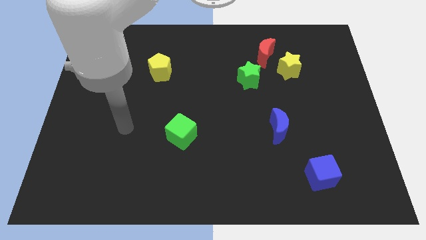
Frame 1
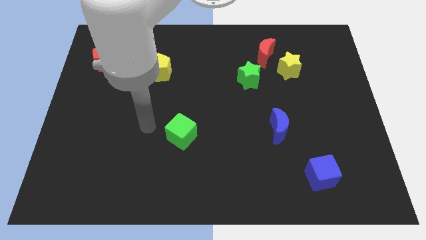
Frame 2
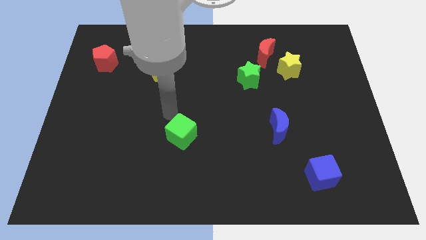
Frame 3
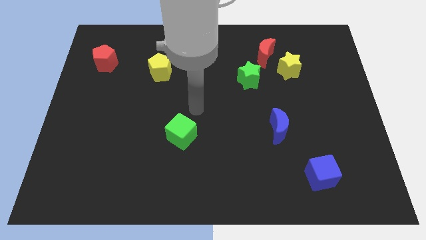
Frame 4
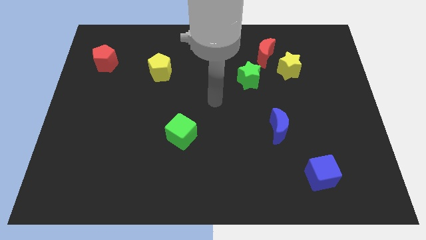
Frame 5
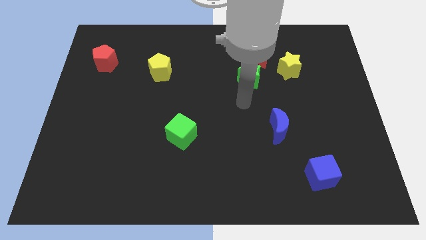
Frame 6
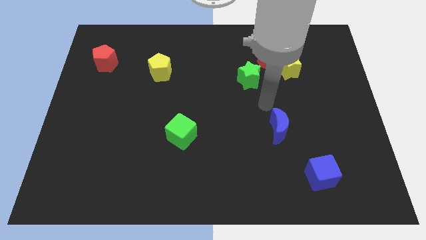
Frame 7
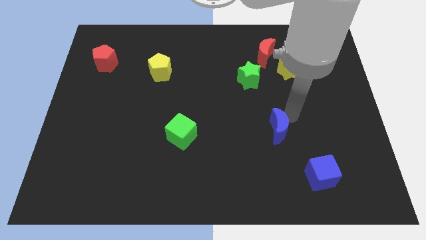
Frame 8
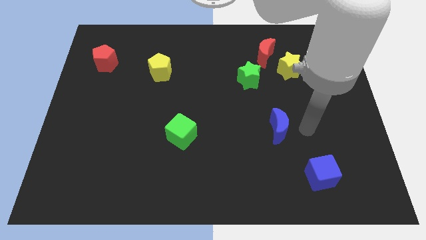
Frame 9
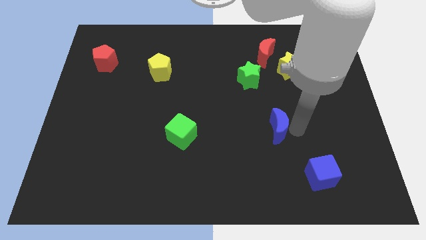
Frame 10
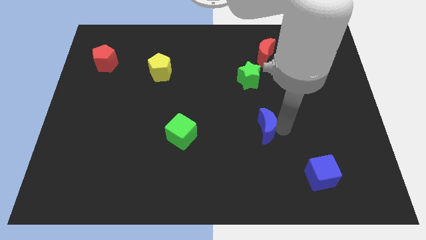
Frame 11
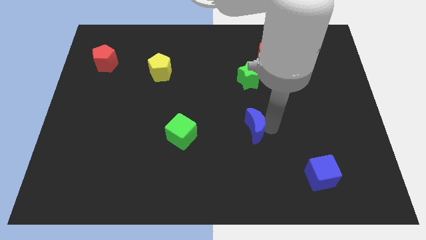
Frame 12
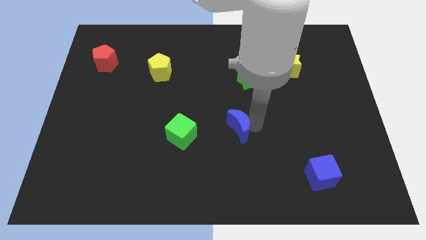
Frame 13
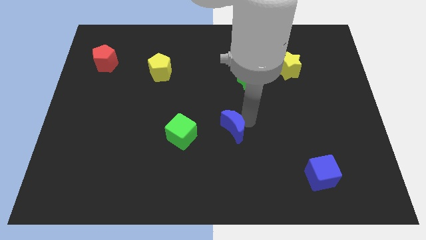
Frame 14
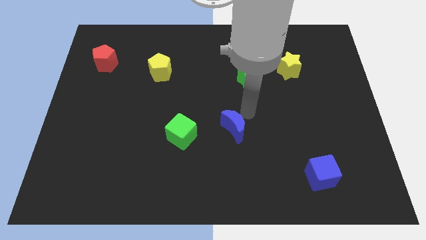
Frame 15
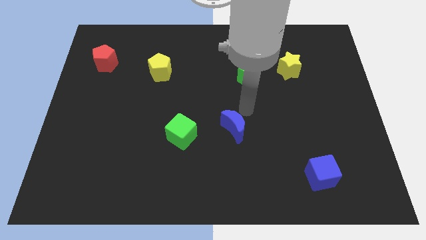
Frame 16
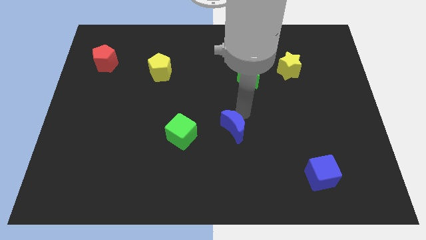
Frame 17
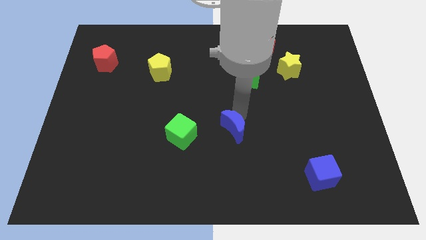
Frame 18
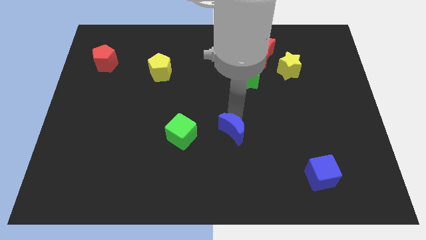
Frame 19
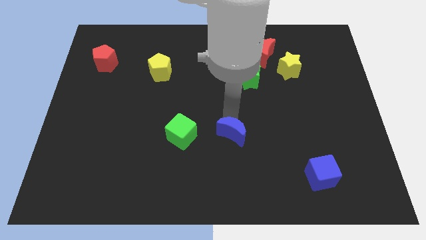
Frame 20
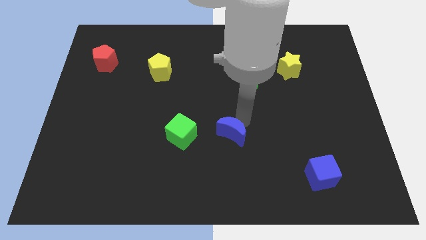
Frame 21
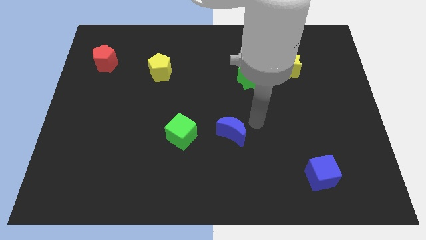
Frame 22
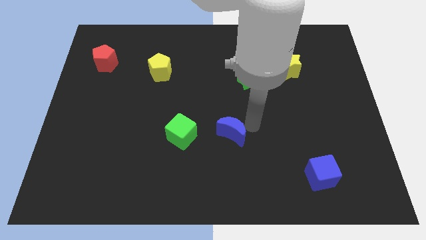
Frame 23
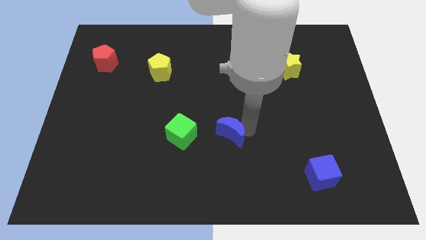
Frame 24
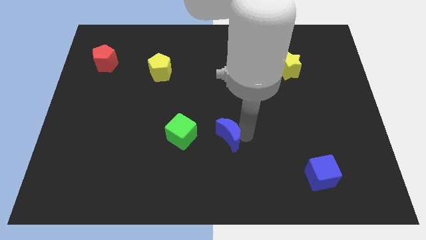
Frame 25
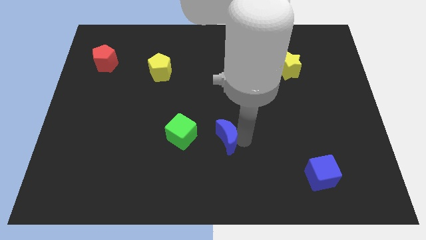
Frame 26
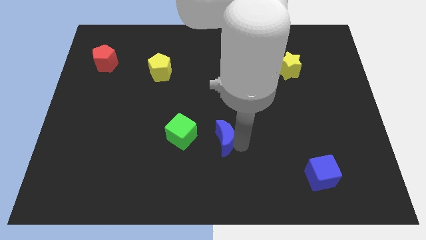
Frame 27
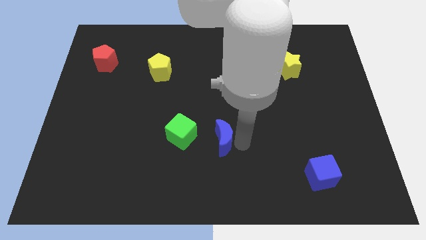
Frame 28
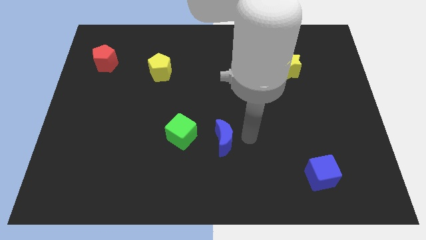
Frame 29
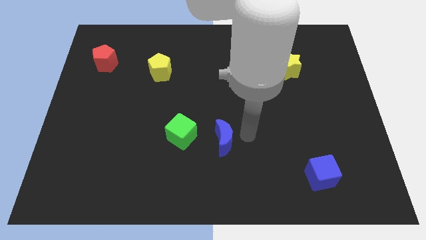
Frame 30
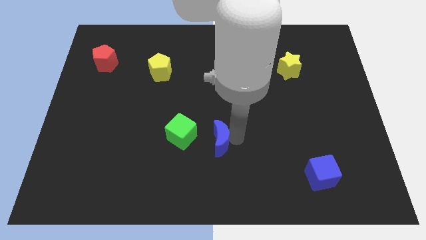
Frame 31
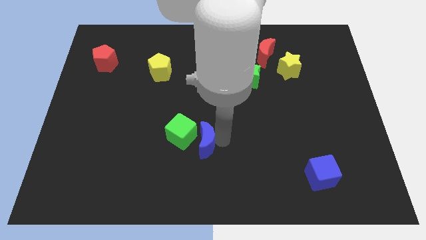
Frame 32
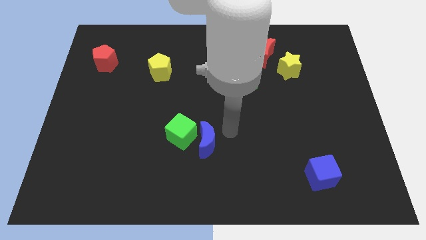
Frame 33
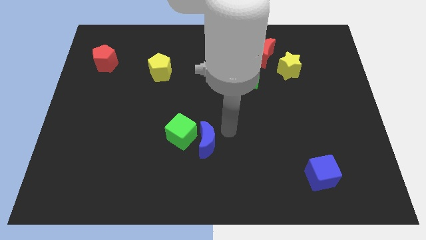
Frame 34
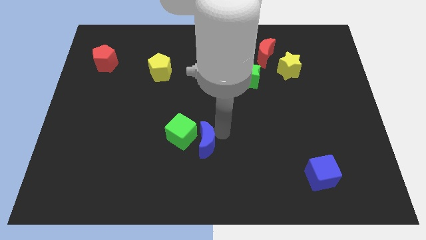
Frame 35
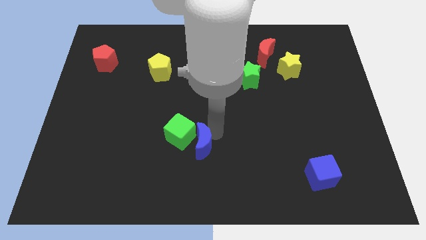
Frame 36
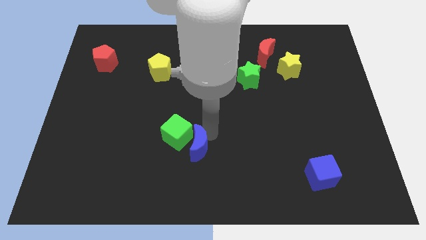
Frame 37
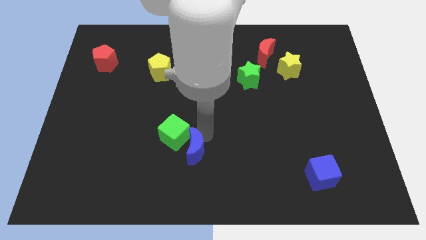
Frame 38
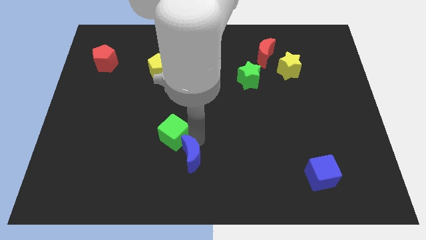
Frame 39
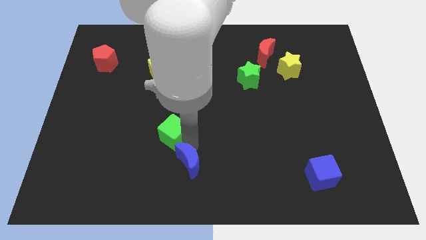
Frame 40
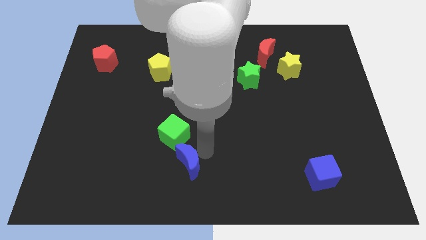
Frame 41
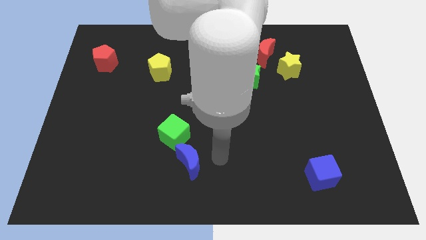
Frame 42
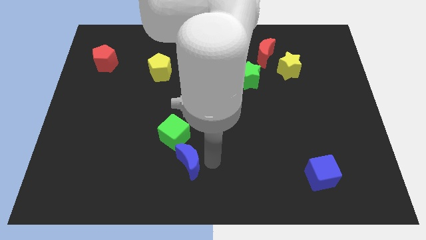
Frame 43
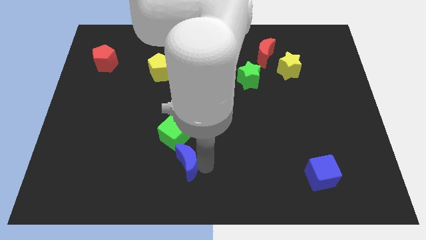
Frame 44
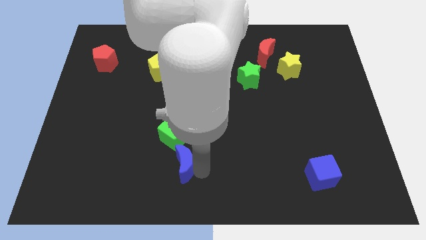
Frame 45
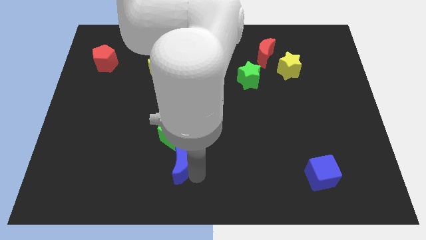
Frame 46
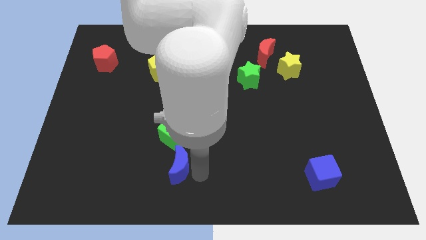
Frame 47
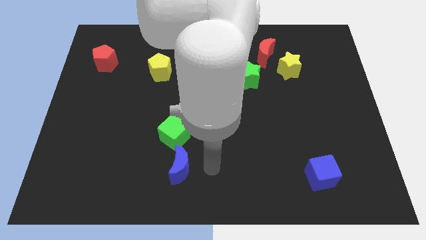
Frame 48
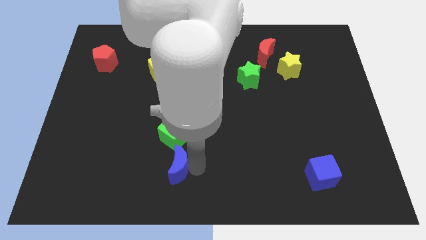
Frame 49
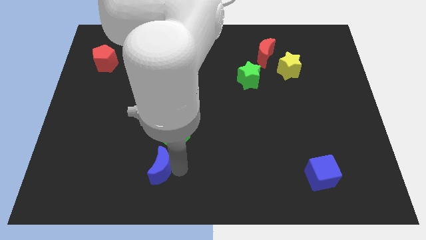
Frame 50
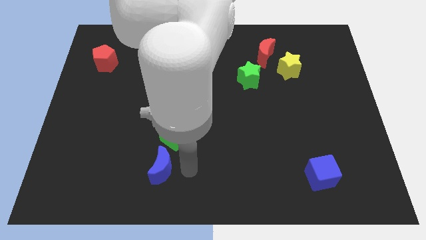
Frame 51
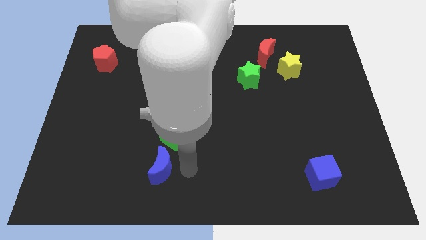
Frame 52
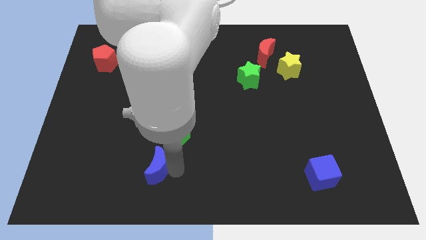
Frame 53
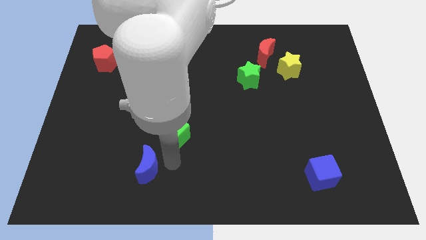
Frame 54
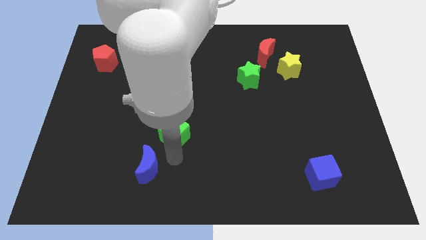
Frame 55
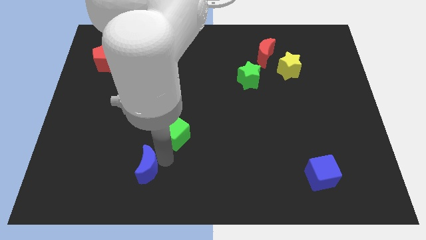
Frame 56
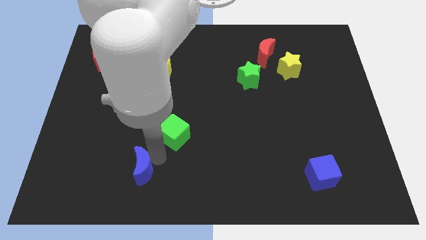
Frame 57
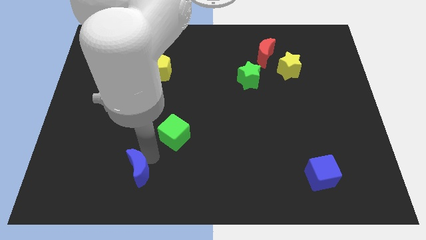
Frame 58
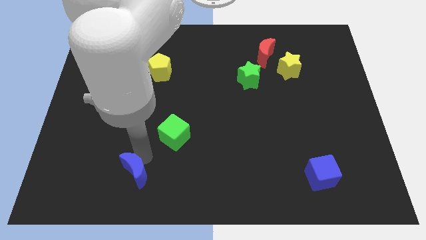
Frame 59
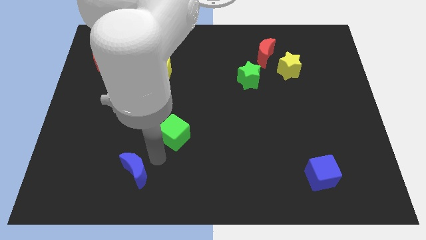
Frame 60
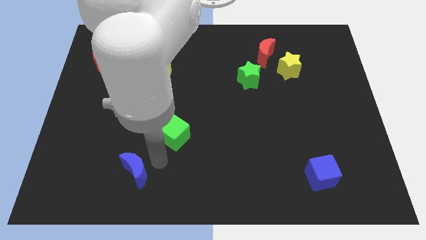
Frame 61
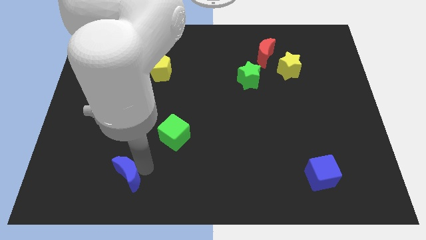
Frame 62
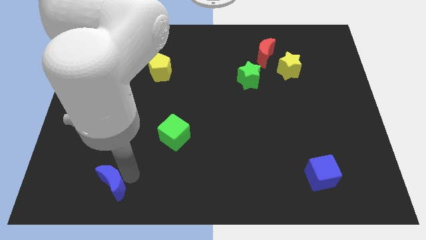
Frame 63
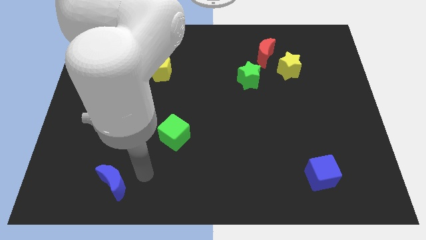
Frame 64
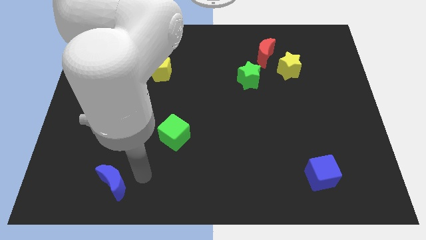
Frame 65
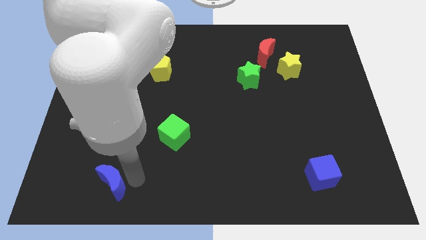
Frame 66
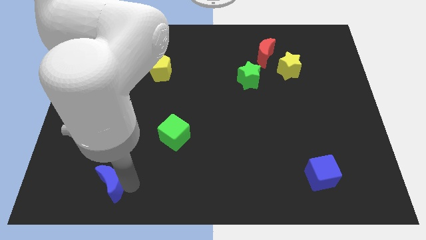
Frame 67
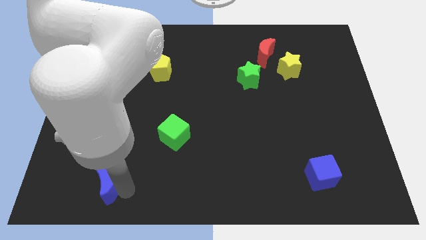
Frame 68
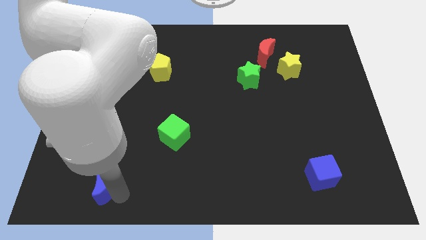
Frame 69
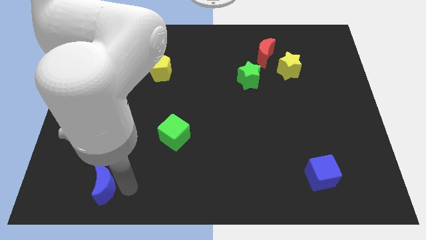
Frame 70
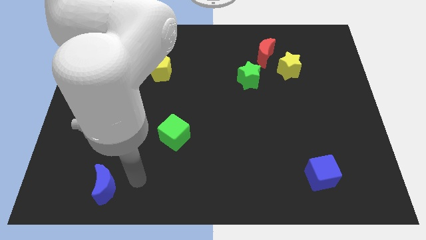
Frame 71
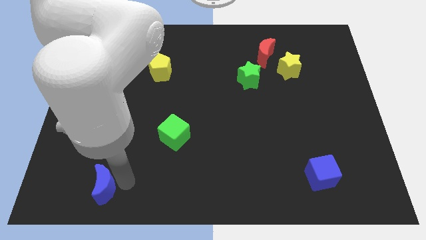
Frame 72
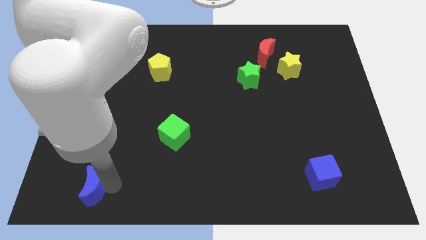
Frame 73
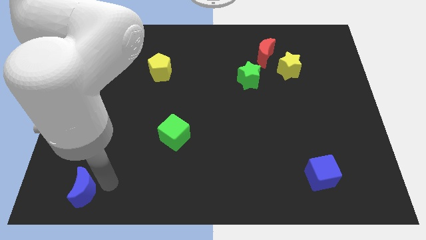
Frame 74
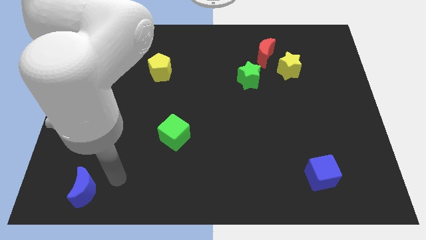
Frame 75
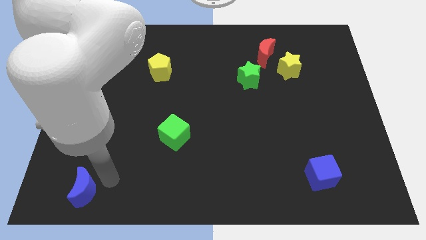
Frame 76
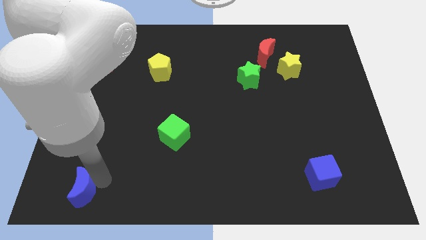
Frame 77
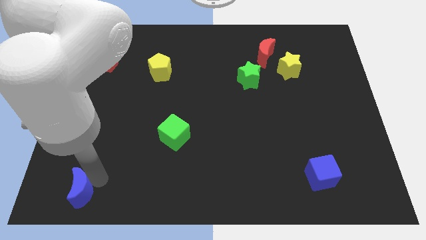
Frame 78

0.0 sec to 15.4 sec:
slide the blue moon to the bottom left
